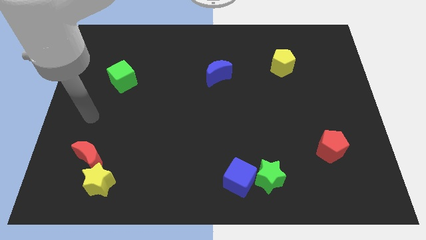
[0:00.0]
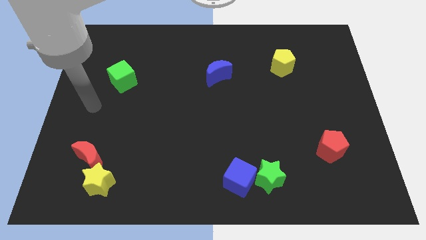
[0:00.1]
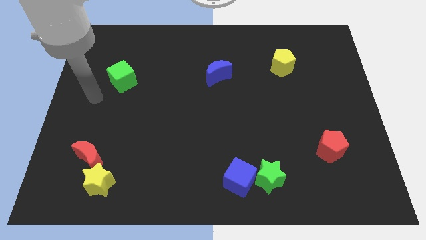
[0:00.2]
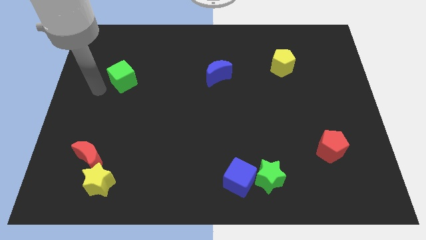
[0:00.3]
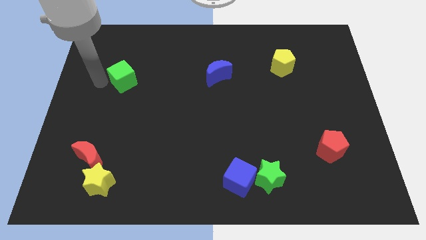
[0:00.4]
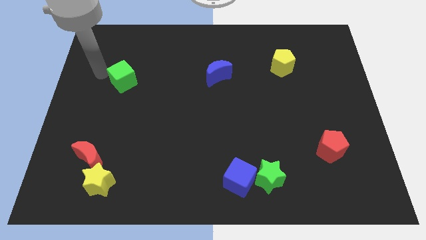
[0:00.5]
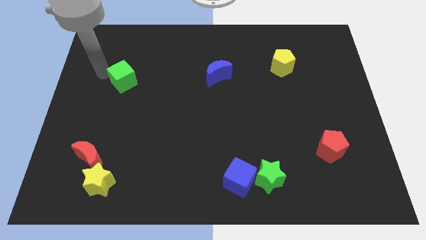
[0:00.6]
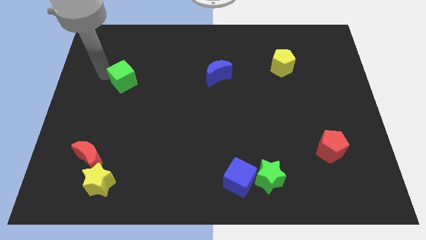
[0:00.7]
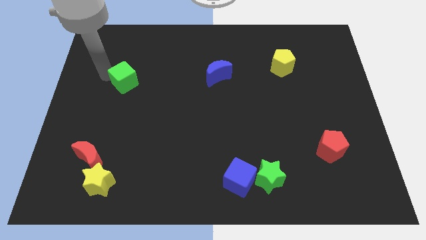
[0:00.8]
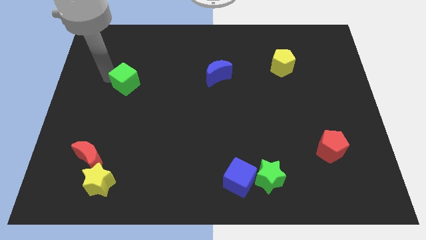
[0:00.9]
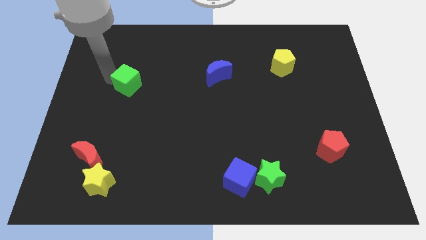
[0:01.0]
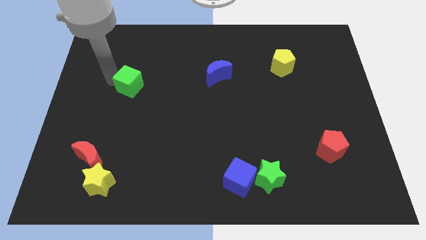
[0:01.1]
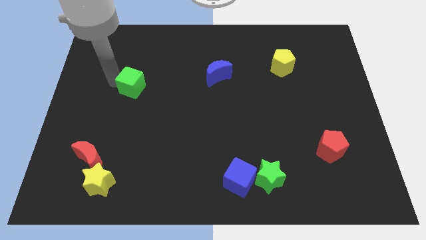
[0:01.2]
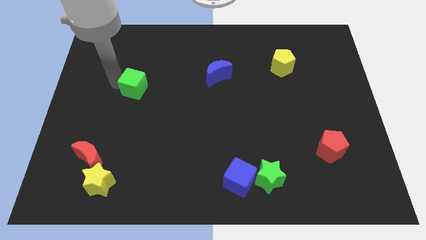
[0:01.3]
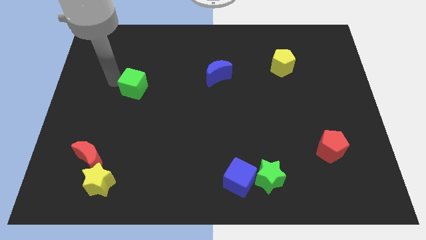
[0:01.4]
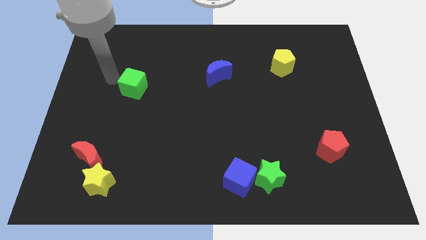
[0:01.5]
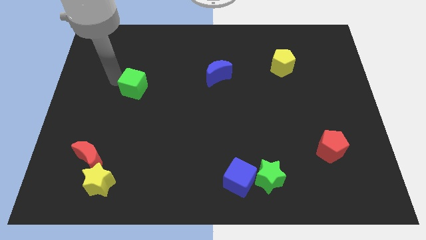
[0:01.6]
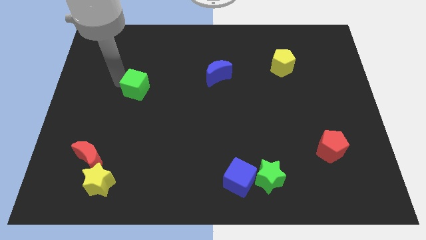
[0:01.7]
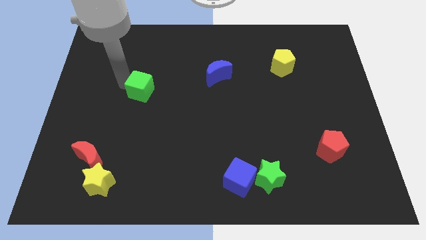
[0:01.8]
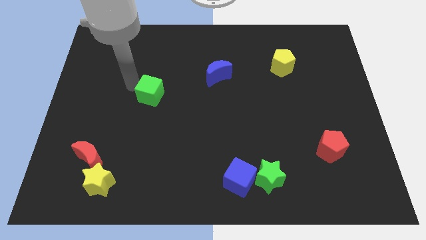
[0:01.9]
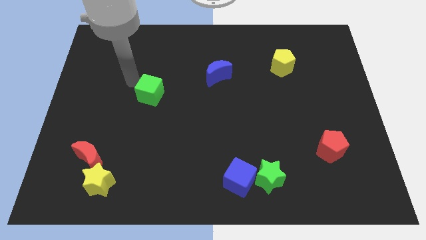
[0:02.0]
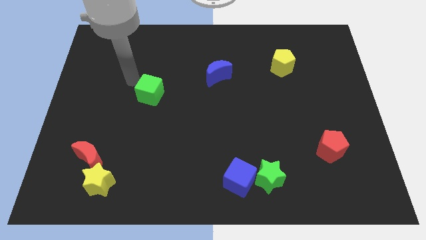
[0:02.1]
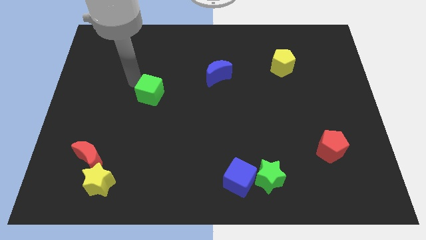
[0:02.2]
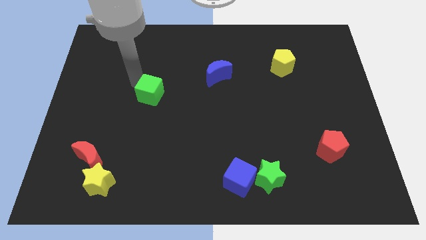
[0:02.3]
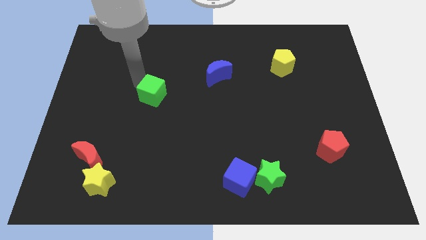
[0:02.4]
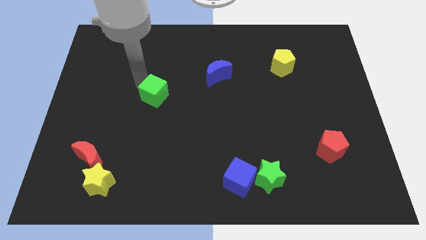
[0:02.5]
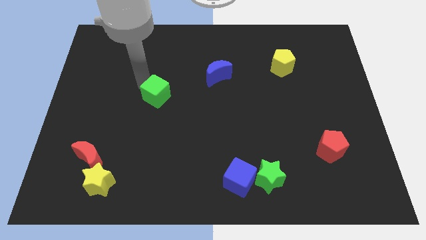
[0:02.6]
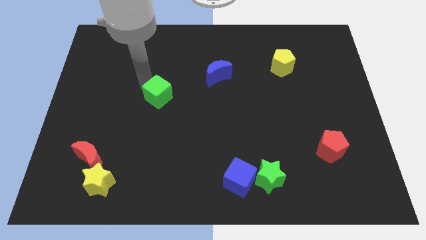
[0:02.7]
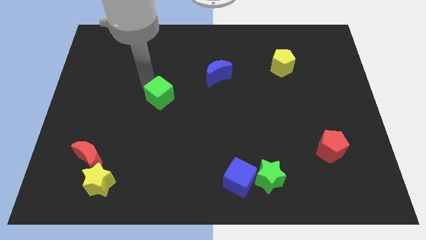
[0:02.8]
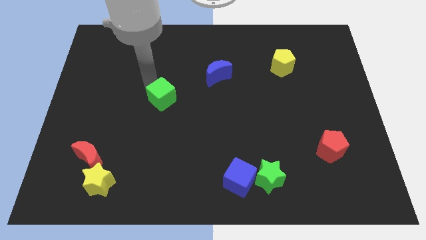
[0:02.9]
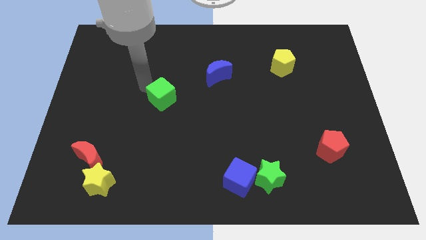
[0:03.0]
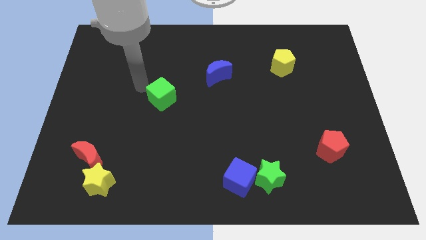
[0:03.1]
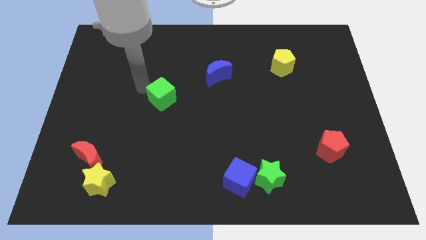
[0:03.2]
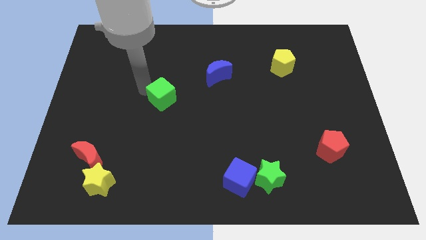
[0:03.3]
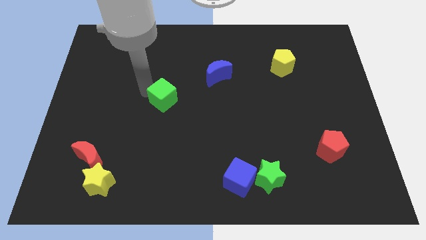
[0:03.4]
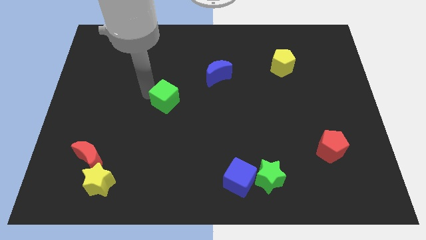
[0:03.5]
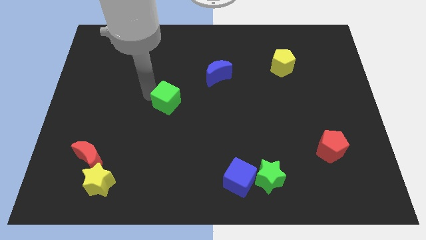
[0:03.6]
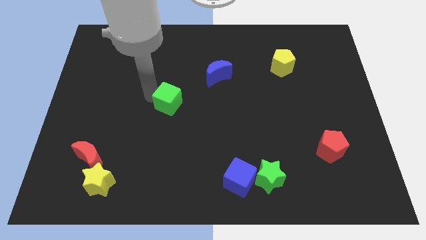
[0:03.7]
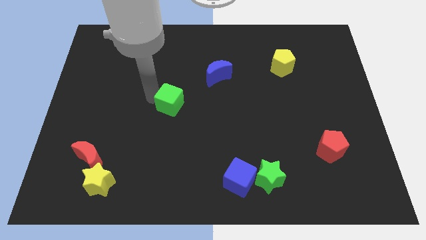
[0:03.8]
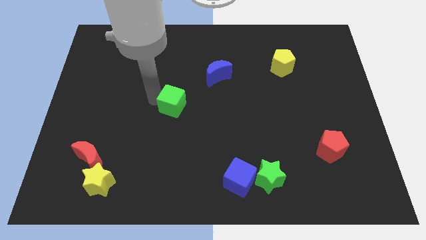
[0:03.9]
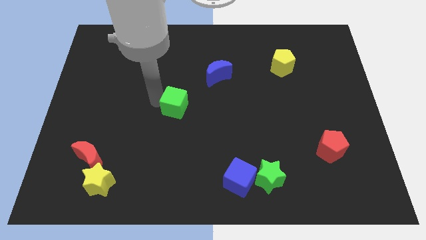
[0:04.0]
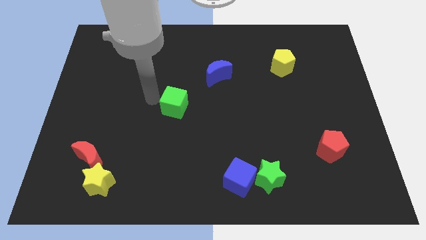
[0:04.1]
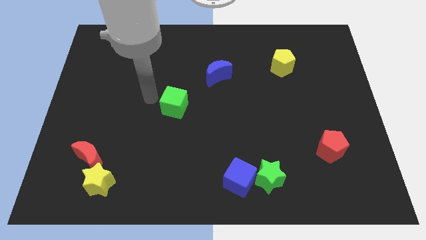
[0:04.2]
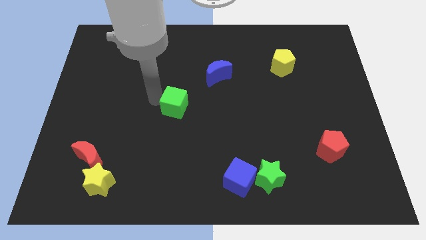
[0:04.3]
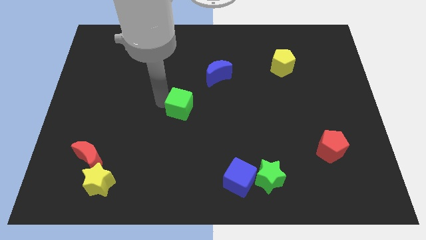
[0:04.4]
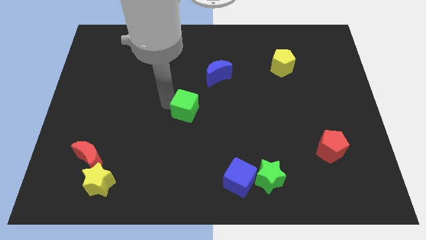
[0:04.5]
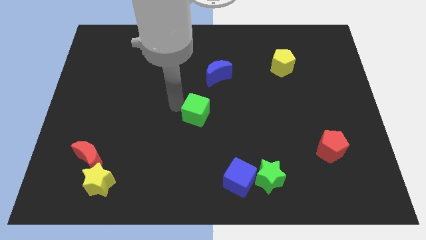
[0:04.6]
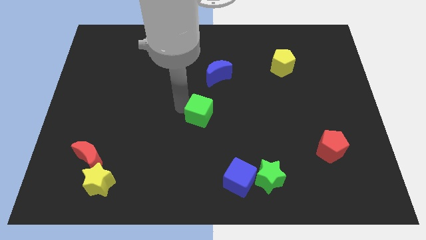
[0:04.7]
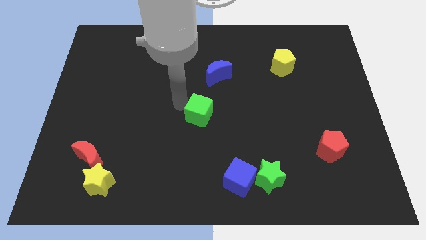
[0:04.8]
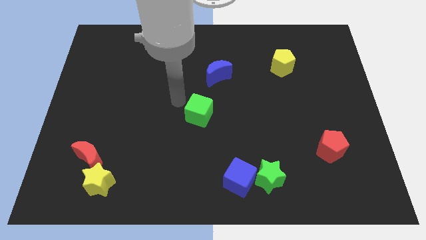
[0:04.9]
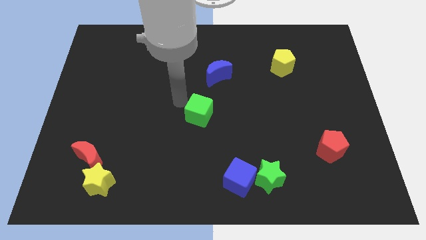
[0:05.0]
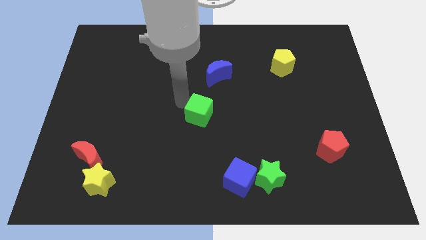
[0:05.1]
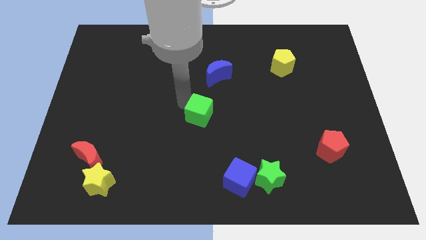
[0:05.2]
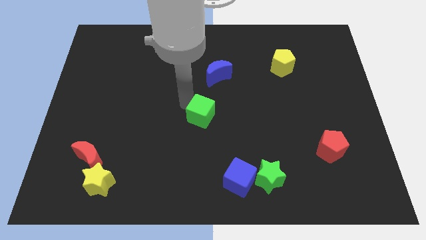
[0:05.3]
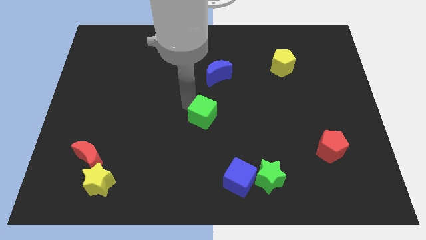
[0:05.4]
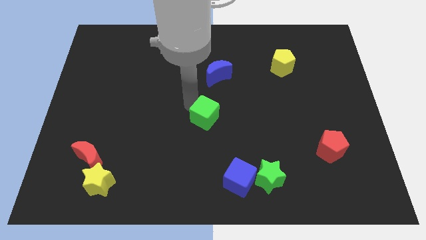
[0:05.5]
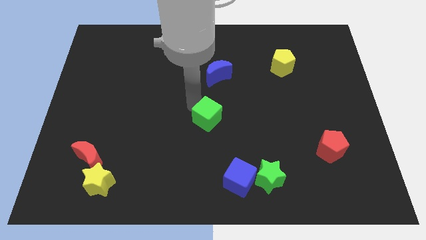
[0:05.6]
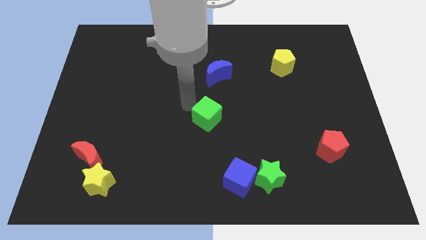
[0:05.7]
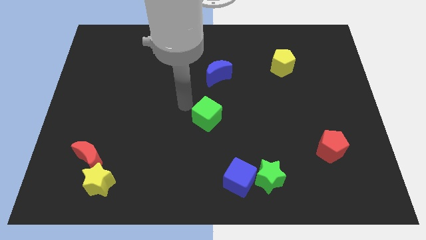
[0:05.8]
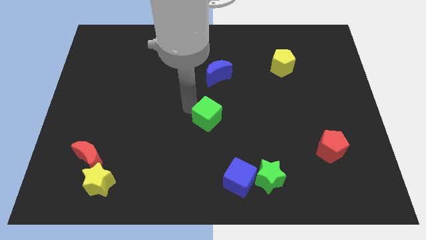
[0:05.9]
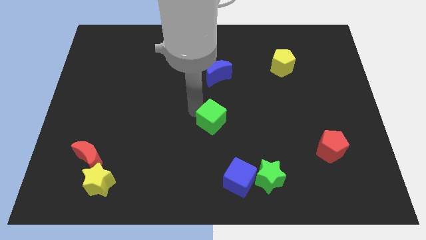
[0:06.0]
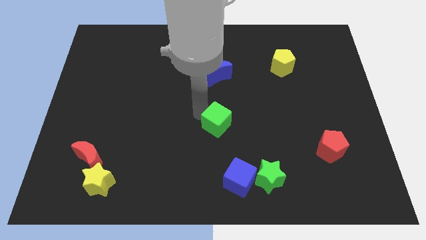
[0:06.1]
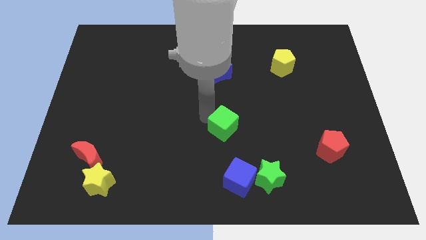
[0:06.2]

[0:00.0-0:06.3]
push the green cube above the blue cube

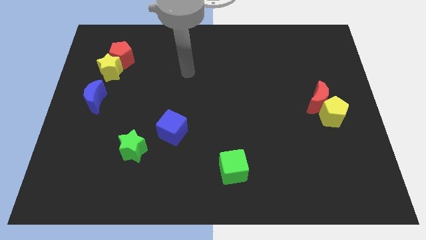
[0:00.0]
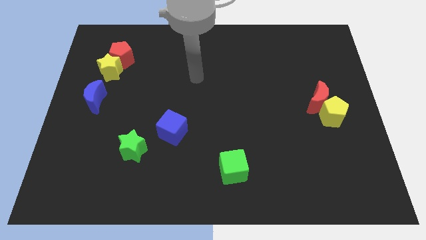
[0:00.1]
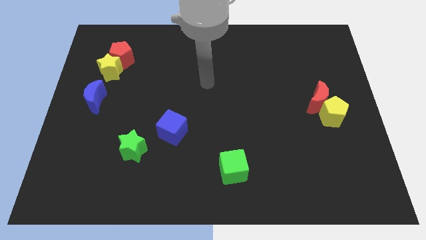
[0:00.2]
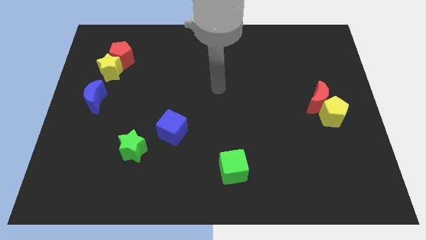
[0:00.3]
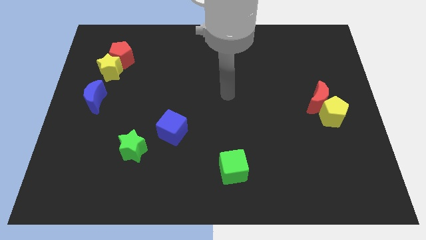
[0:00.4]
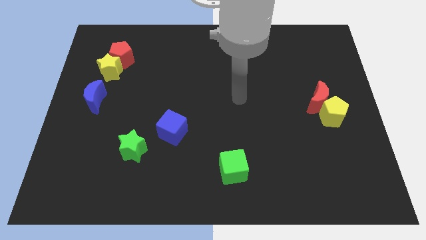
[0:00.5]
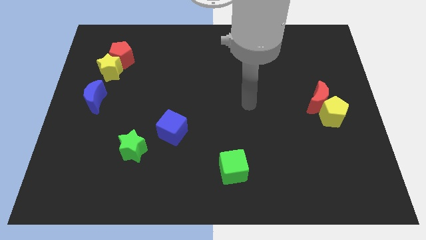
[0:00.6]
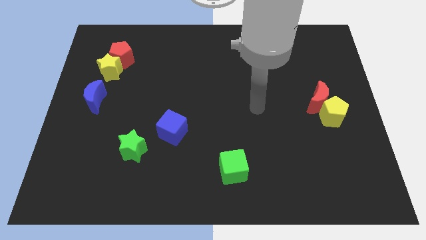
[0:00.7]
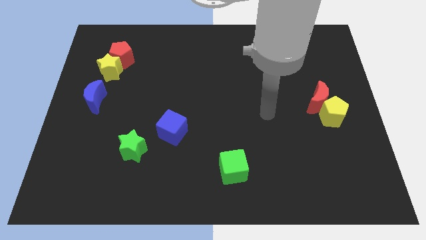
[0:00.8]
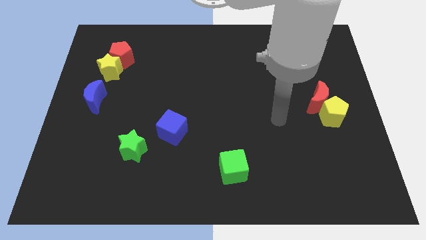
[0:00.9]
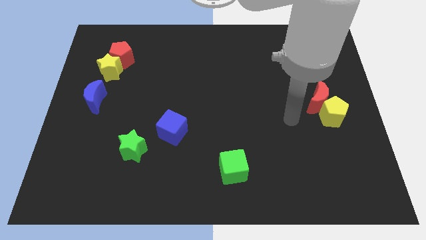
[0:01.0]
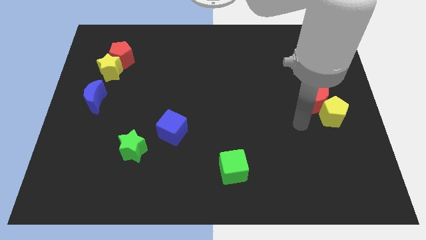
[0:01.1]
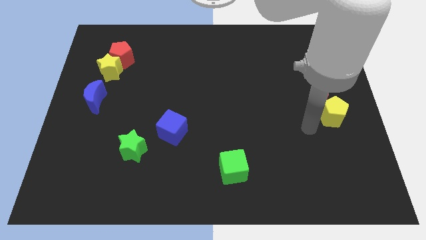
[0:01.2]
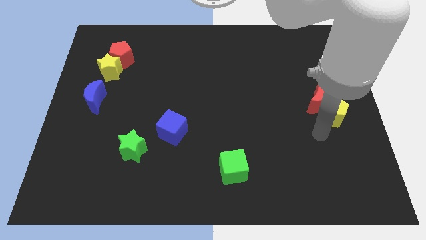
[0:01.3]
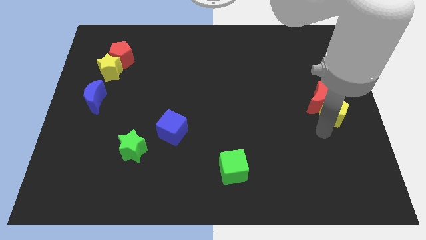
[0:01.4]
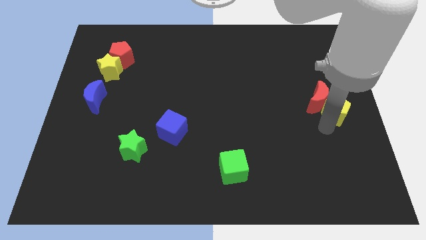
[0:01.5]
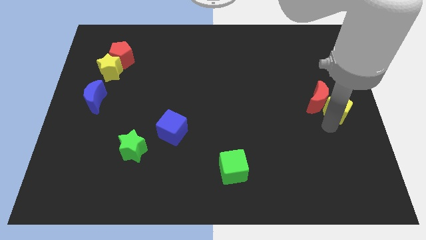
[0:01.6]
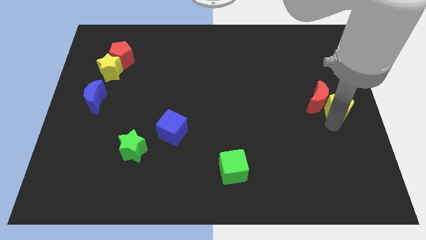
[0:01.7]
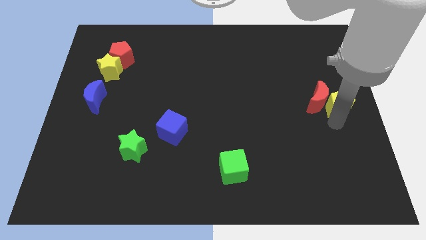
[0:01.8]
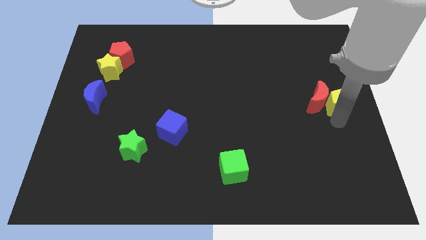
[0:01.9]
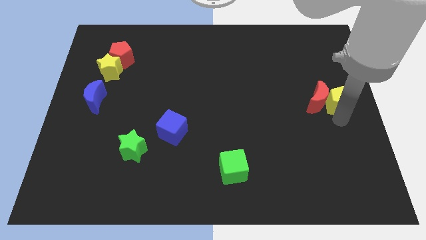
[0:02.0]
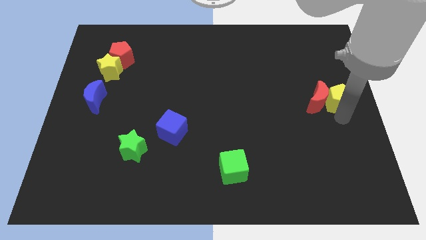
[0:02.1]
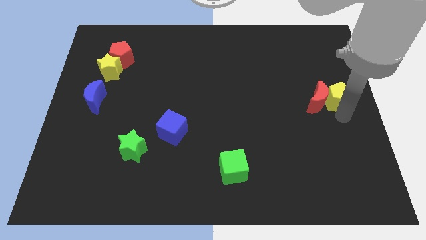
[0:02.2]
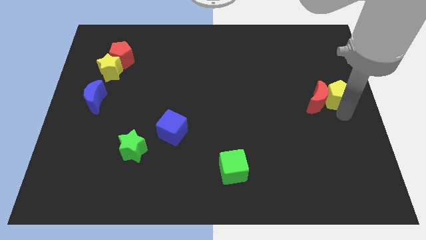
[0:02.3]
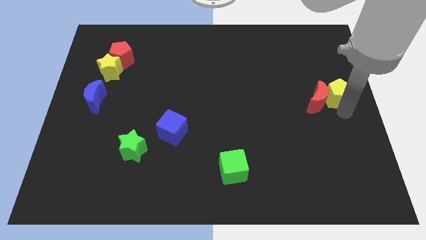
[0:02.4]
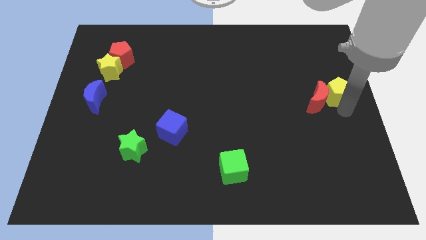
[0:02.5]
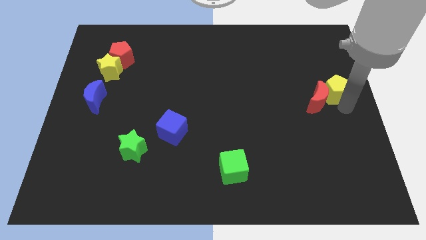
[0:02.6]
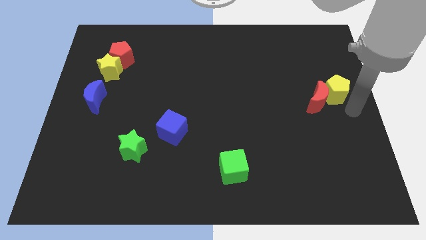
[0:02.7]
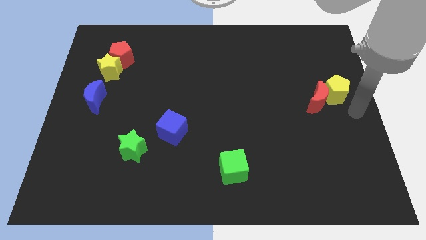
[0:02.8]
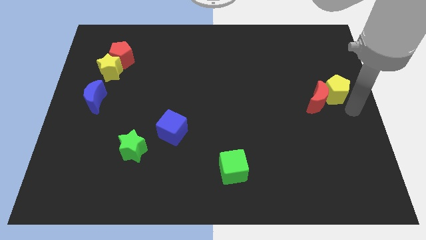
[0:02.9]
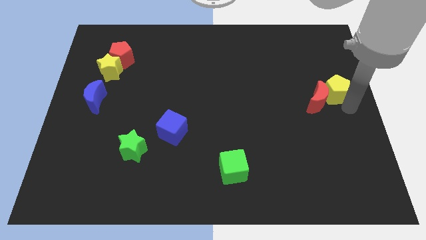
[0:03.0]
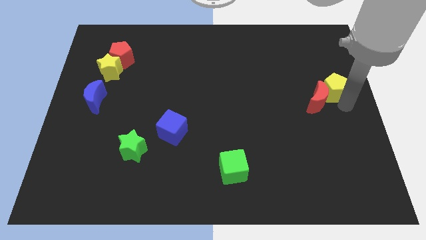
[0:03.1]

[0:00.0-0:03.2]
put the yellow pentagon to the top side of the red moon
